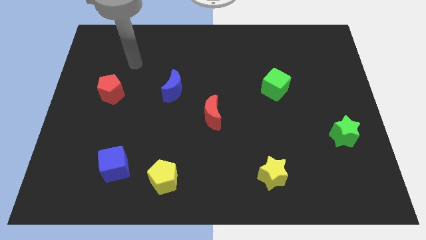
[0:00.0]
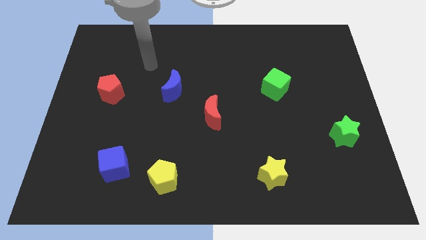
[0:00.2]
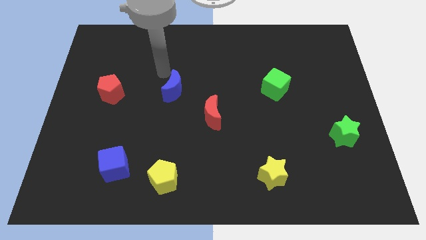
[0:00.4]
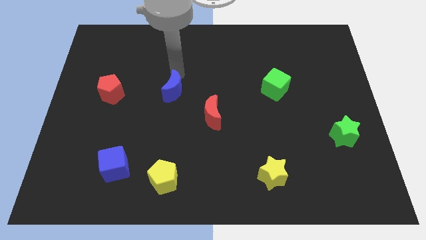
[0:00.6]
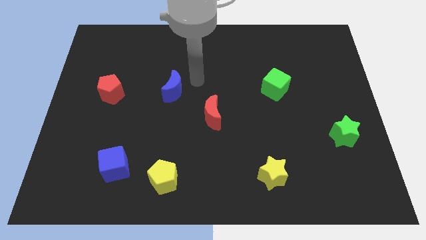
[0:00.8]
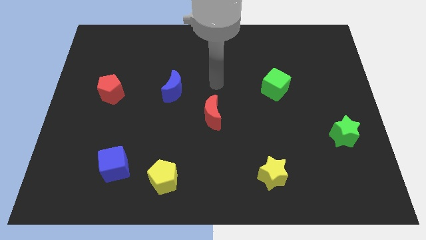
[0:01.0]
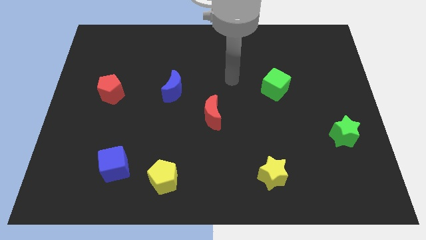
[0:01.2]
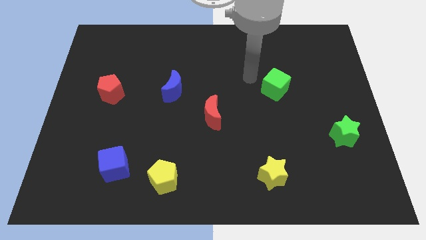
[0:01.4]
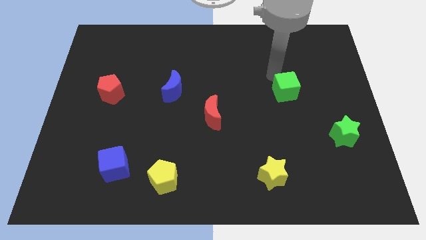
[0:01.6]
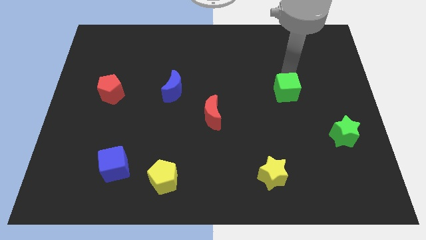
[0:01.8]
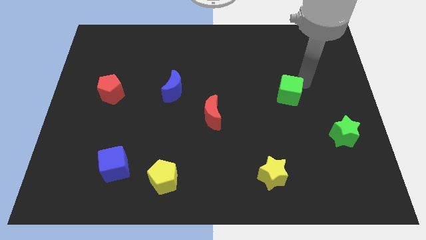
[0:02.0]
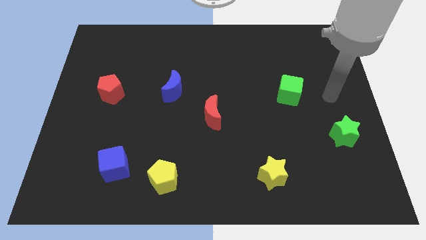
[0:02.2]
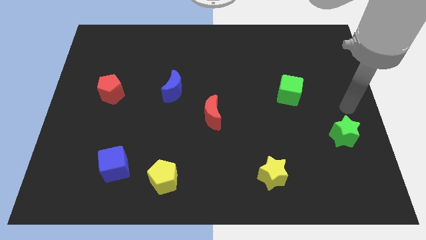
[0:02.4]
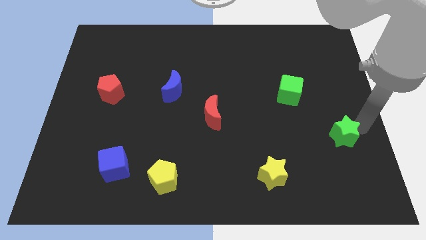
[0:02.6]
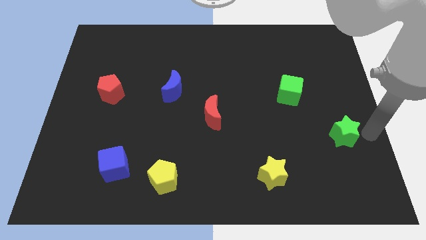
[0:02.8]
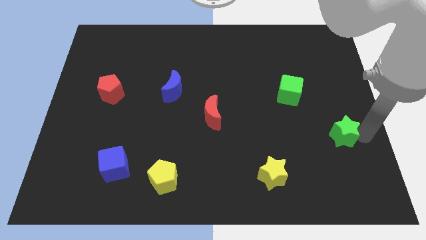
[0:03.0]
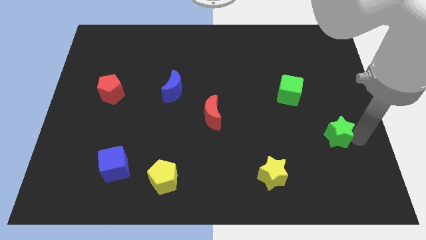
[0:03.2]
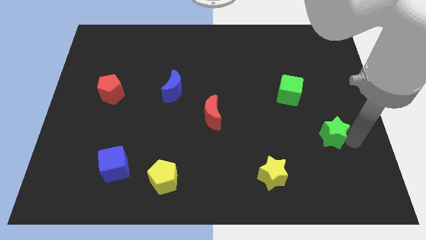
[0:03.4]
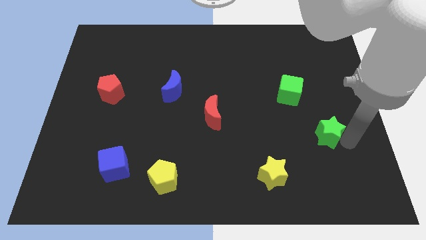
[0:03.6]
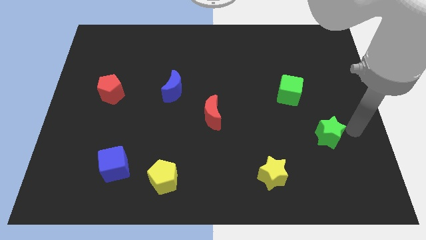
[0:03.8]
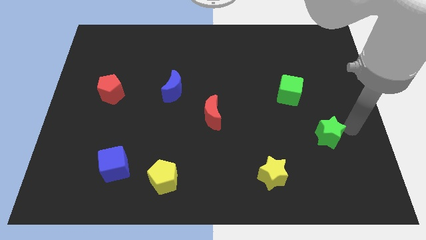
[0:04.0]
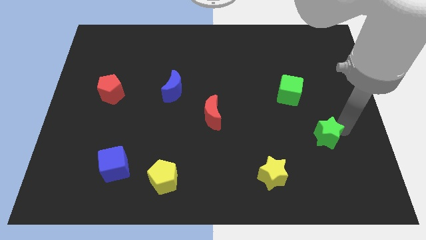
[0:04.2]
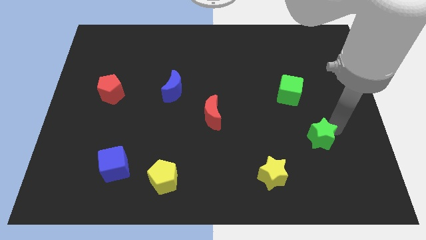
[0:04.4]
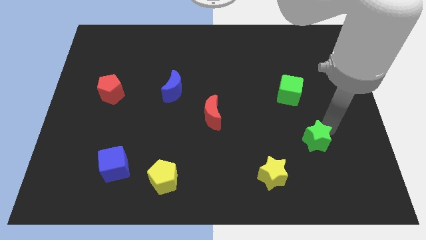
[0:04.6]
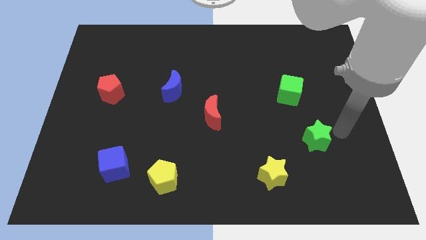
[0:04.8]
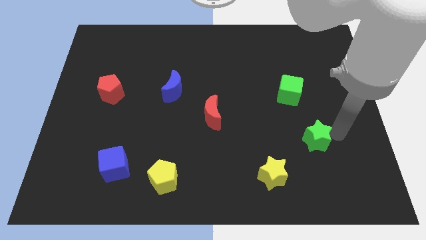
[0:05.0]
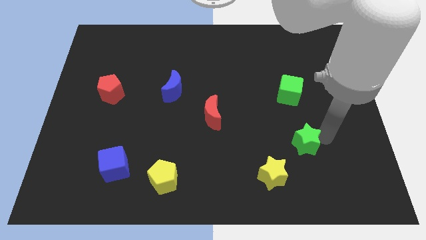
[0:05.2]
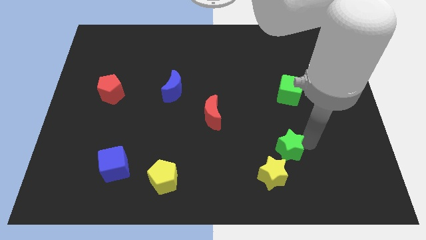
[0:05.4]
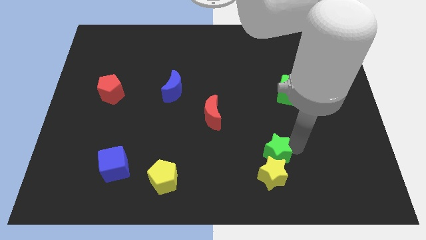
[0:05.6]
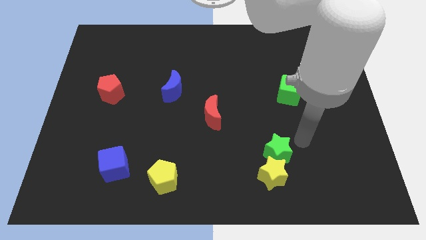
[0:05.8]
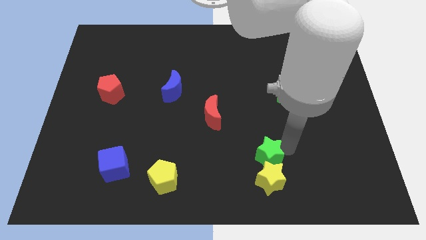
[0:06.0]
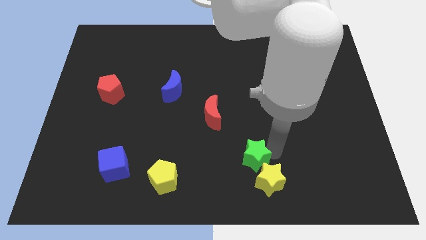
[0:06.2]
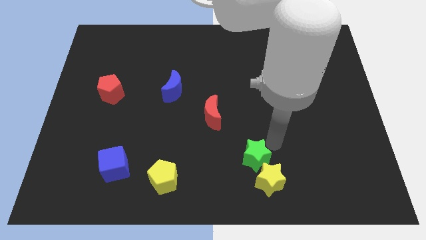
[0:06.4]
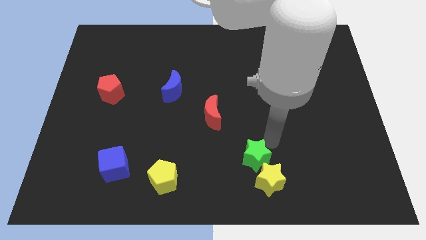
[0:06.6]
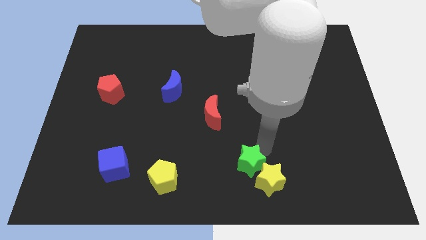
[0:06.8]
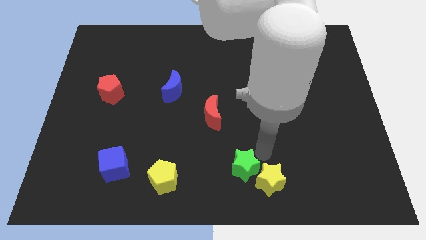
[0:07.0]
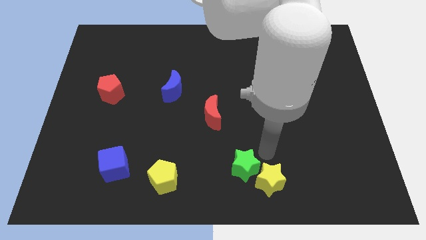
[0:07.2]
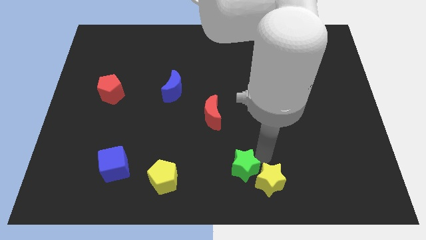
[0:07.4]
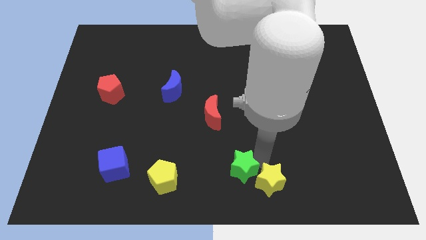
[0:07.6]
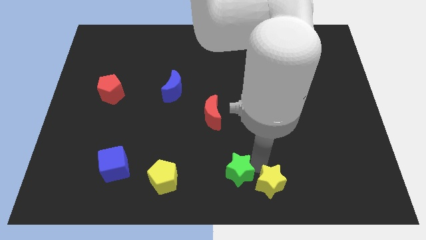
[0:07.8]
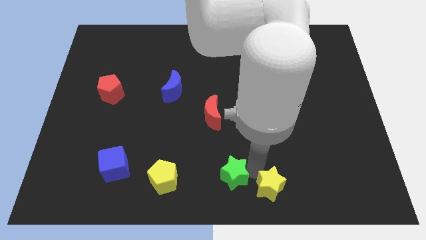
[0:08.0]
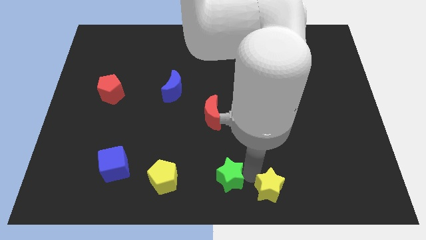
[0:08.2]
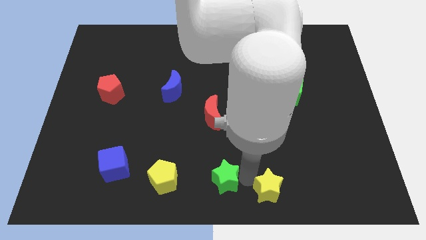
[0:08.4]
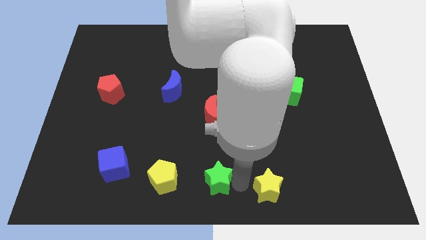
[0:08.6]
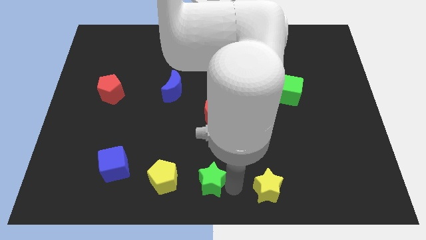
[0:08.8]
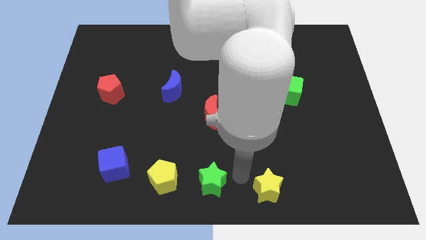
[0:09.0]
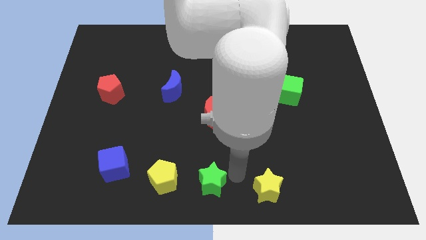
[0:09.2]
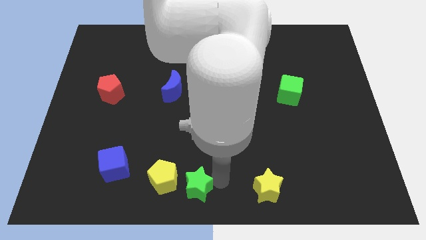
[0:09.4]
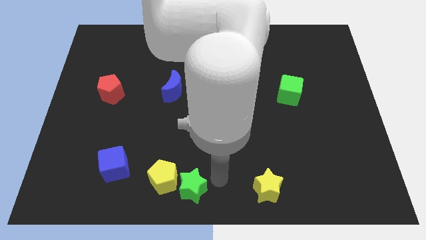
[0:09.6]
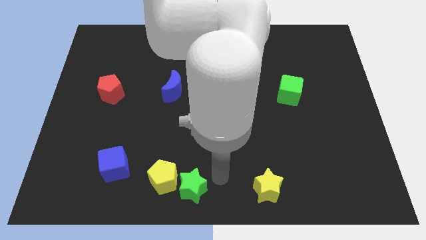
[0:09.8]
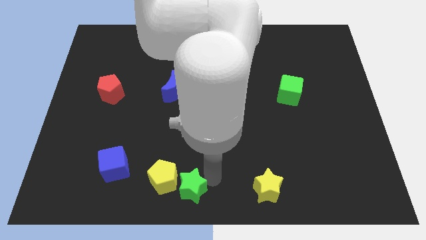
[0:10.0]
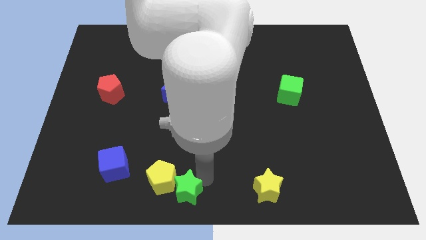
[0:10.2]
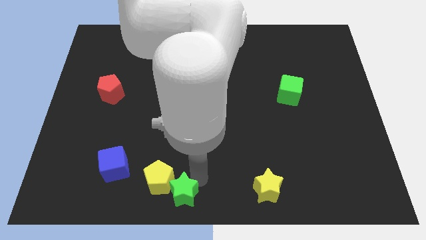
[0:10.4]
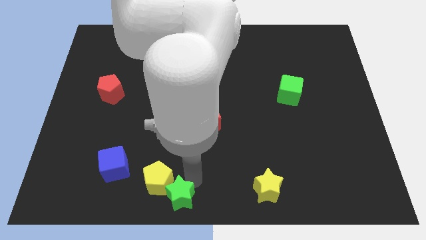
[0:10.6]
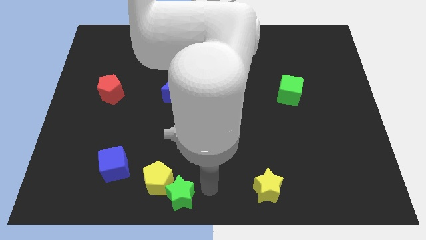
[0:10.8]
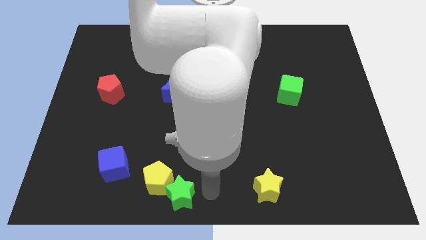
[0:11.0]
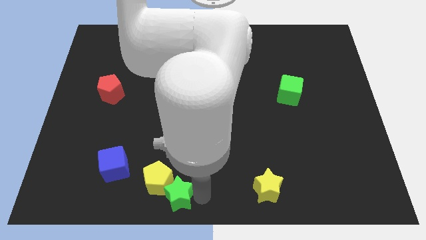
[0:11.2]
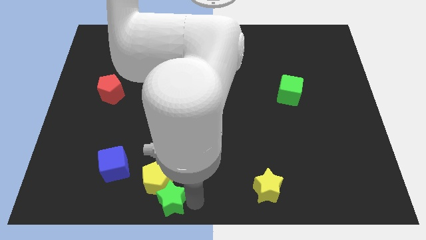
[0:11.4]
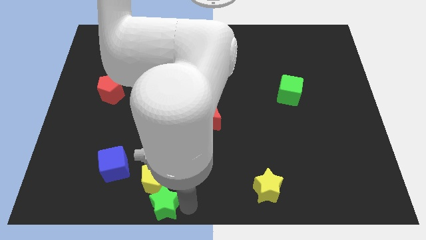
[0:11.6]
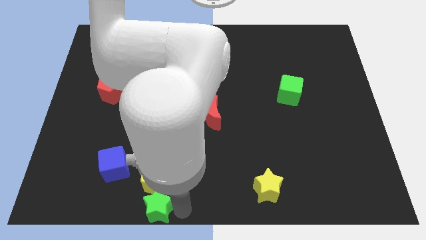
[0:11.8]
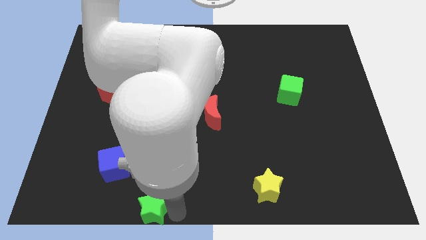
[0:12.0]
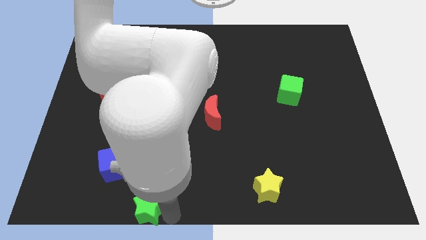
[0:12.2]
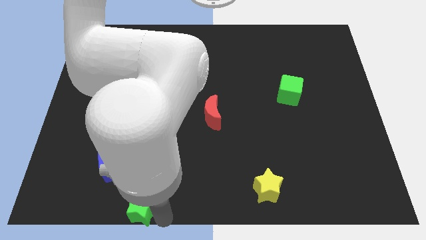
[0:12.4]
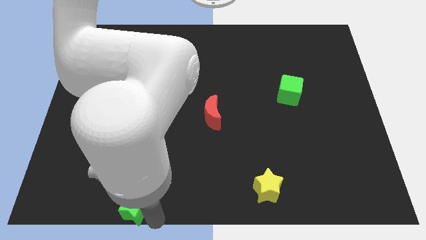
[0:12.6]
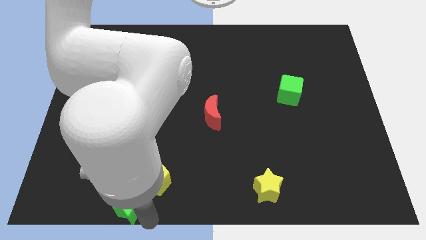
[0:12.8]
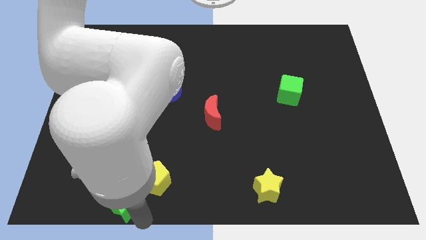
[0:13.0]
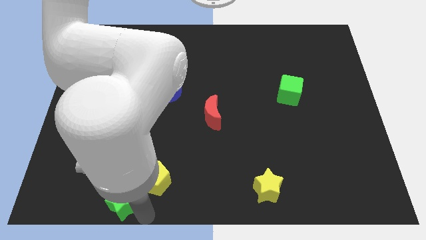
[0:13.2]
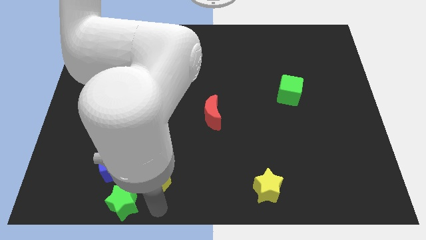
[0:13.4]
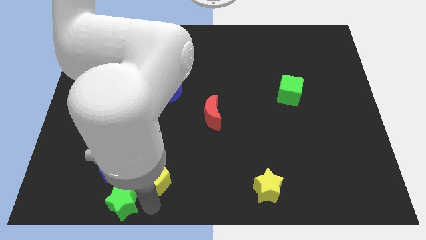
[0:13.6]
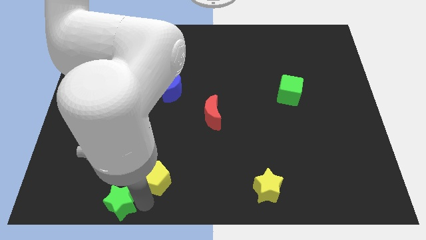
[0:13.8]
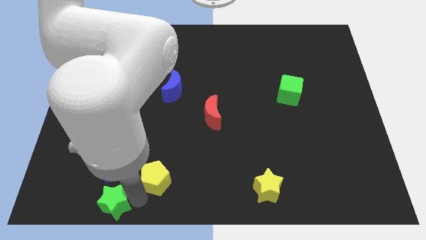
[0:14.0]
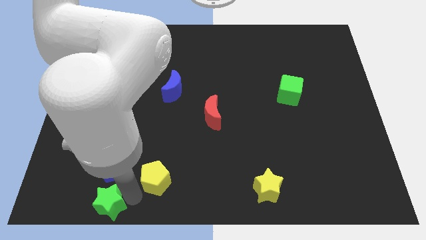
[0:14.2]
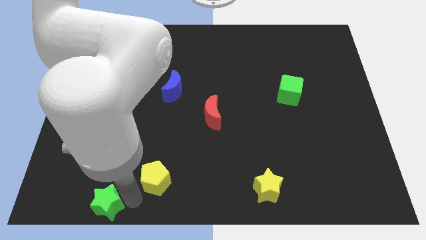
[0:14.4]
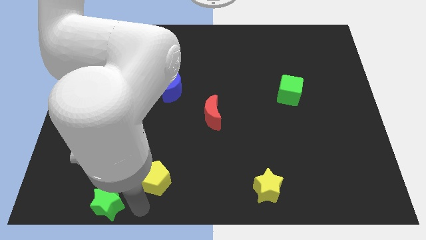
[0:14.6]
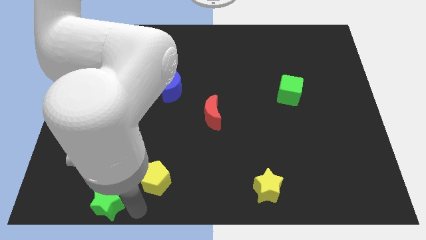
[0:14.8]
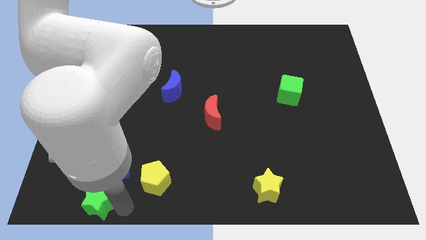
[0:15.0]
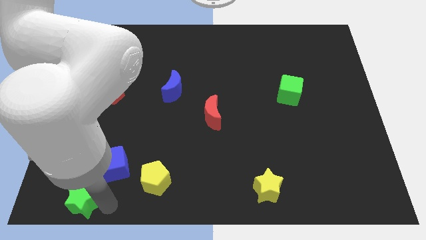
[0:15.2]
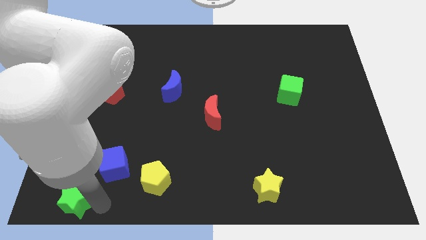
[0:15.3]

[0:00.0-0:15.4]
move the green star to the bottom left
